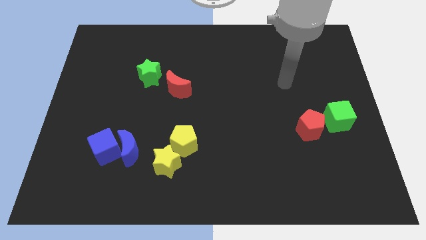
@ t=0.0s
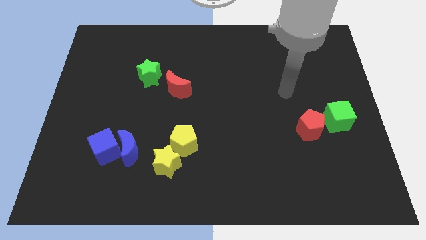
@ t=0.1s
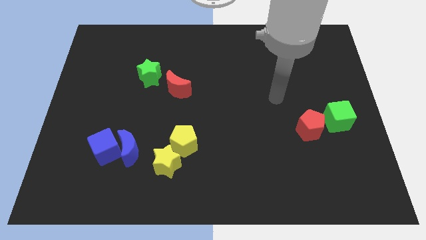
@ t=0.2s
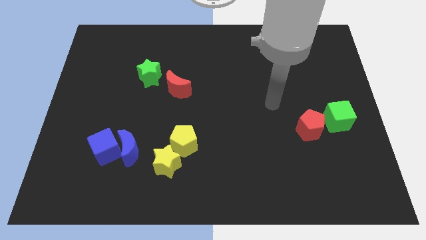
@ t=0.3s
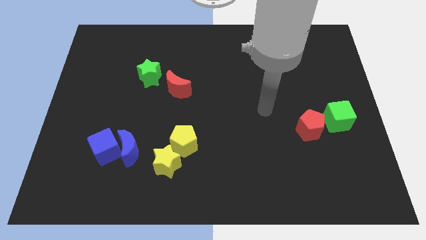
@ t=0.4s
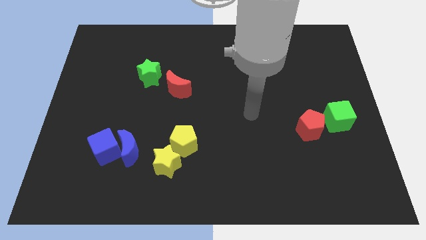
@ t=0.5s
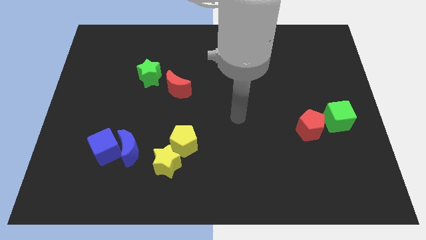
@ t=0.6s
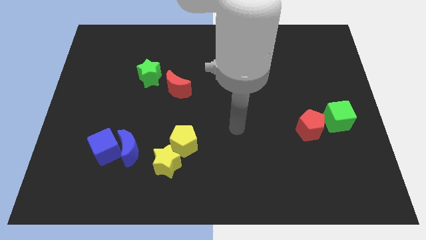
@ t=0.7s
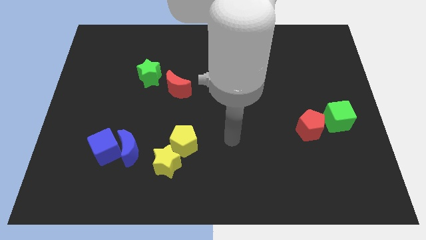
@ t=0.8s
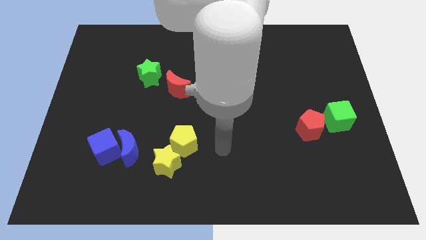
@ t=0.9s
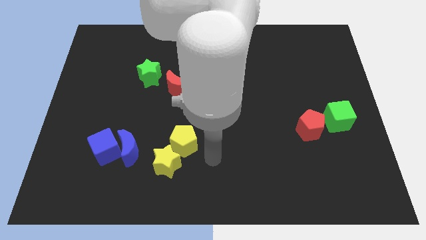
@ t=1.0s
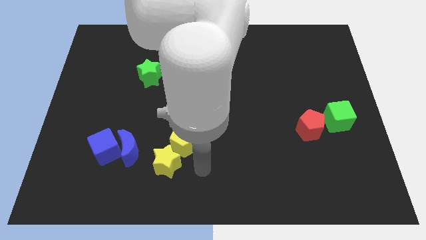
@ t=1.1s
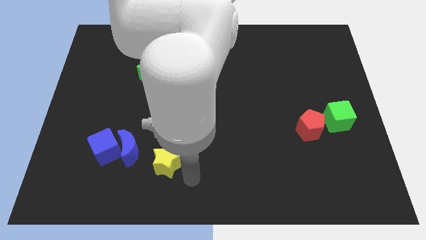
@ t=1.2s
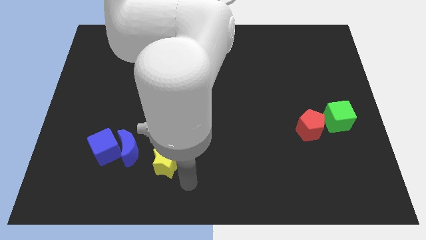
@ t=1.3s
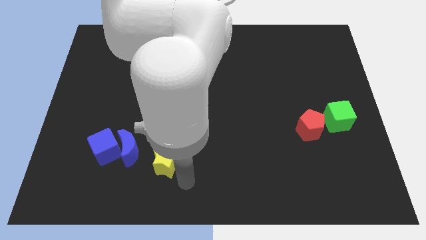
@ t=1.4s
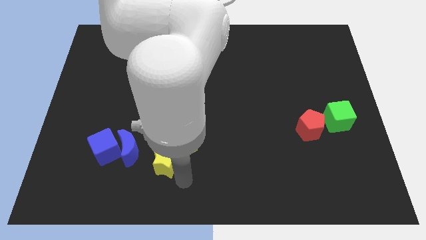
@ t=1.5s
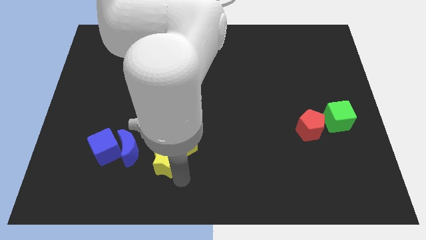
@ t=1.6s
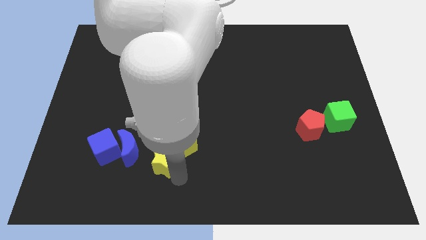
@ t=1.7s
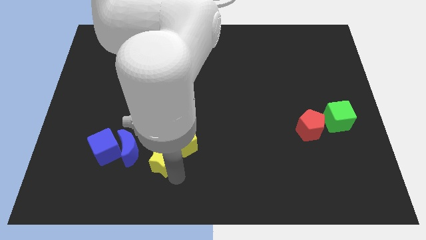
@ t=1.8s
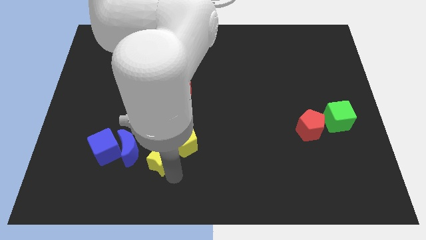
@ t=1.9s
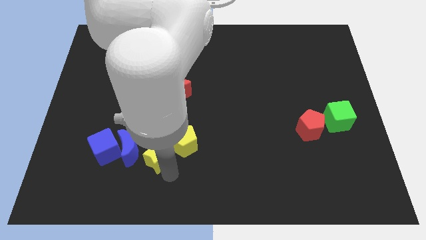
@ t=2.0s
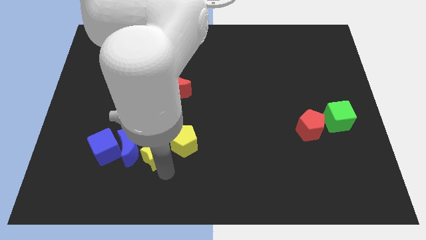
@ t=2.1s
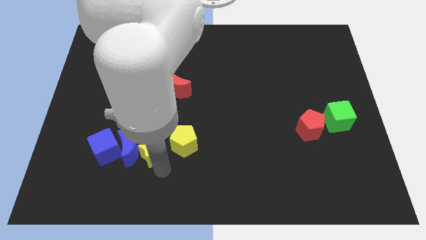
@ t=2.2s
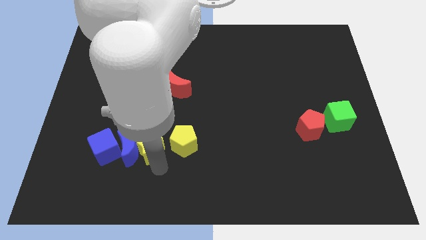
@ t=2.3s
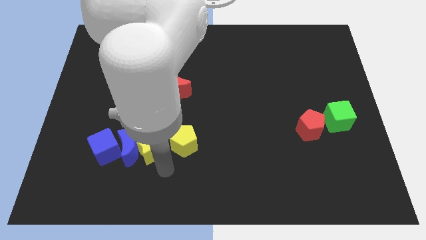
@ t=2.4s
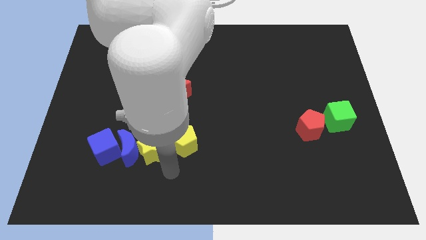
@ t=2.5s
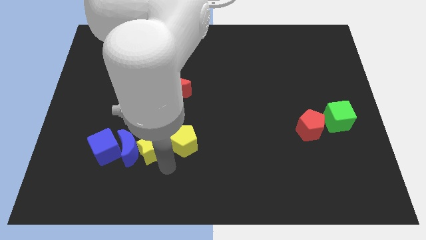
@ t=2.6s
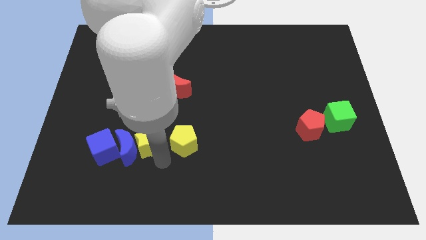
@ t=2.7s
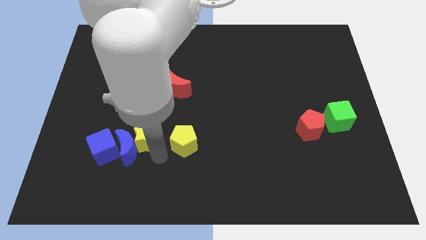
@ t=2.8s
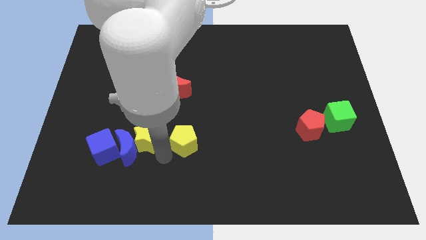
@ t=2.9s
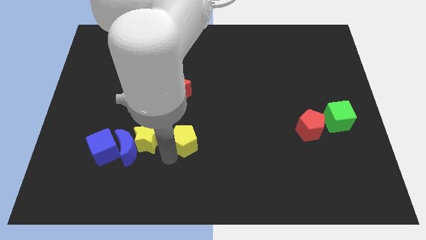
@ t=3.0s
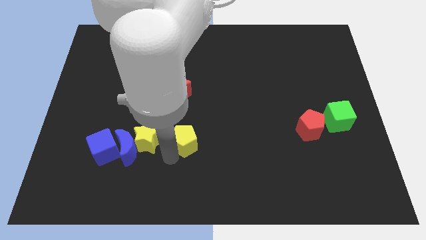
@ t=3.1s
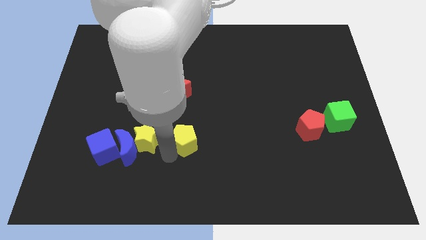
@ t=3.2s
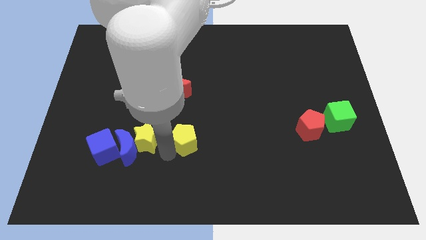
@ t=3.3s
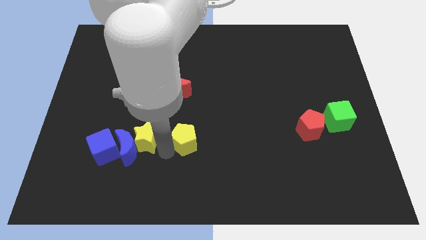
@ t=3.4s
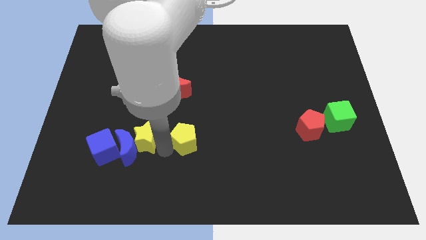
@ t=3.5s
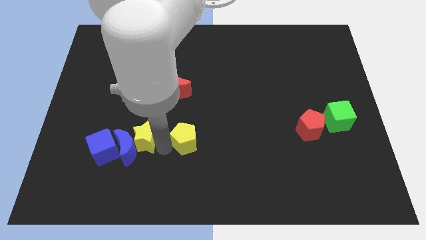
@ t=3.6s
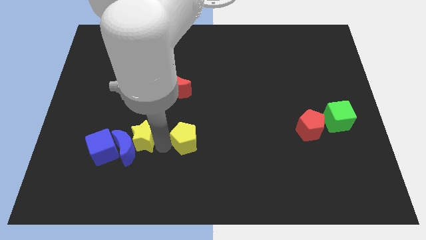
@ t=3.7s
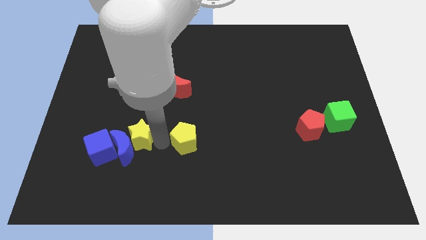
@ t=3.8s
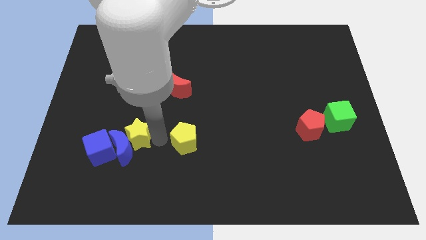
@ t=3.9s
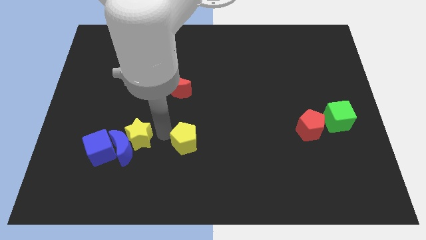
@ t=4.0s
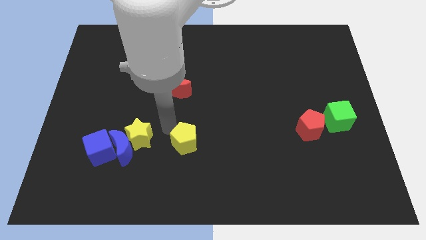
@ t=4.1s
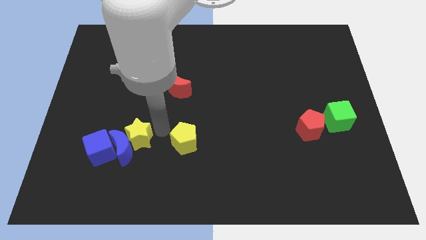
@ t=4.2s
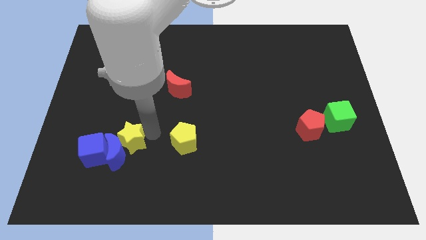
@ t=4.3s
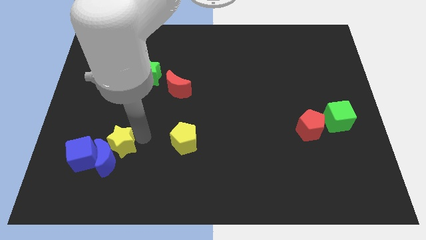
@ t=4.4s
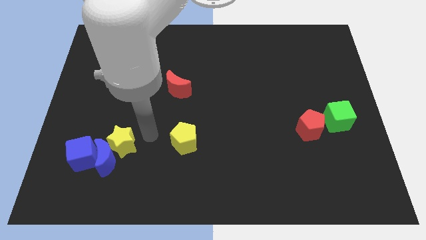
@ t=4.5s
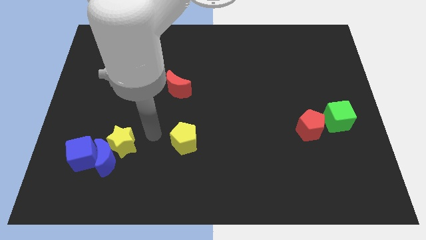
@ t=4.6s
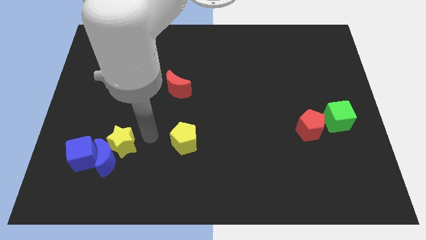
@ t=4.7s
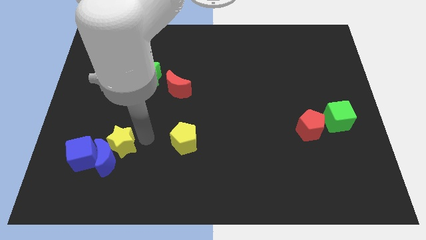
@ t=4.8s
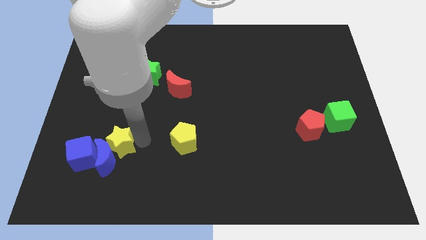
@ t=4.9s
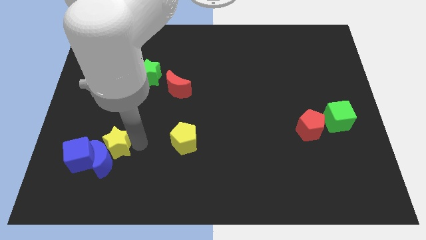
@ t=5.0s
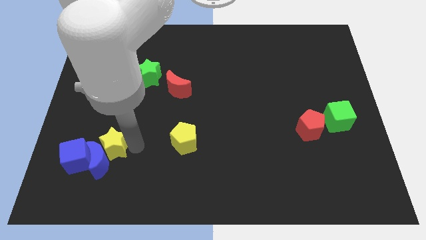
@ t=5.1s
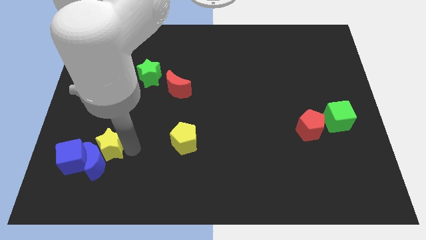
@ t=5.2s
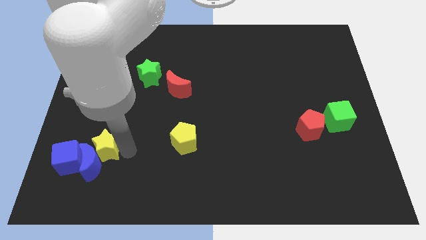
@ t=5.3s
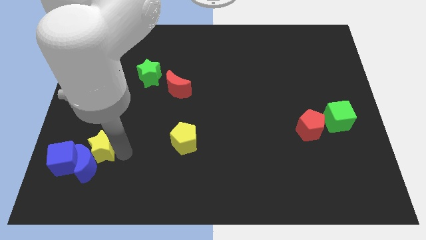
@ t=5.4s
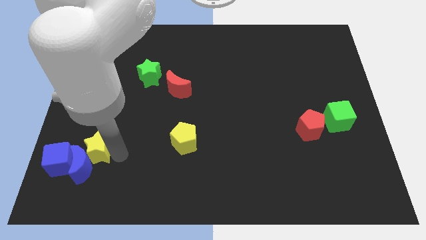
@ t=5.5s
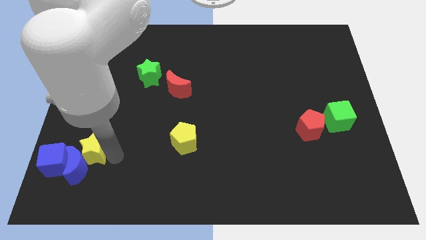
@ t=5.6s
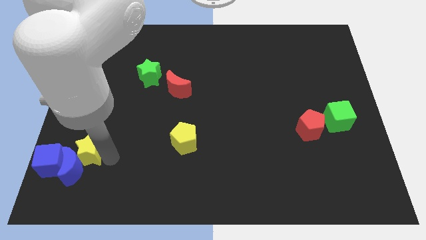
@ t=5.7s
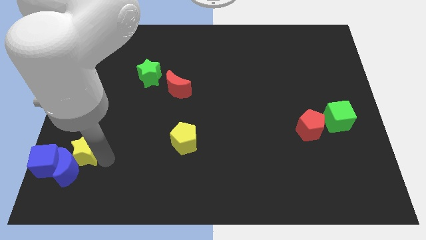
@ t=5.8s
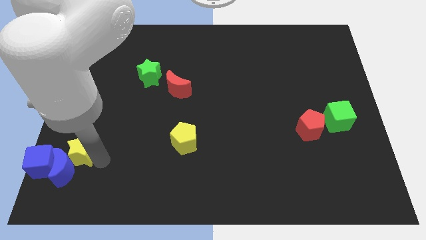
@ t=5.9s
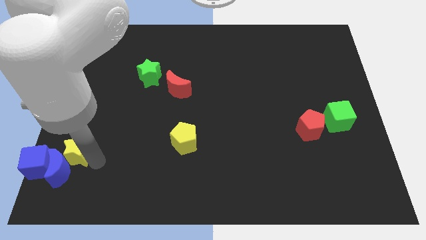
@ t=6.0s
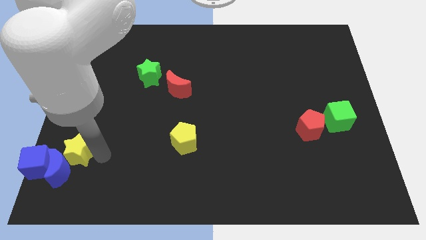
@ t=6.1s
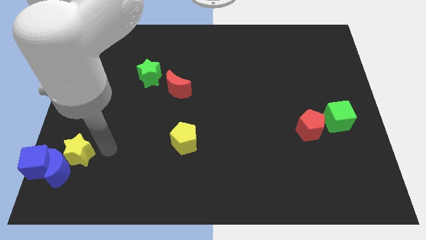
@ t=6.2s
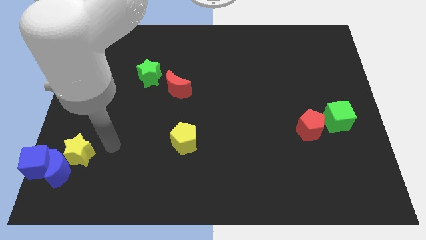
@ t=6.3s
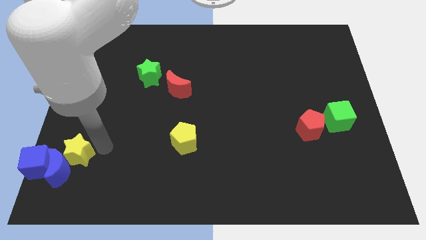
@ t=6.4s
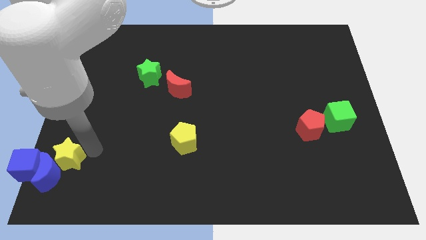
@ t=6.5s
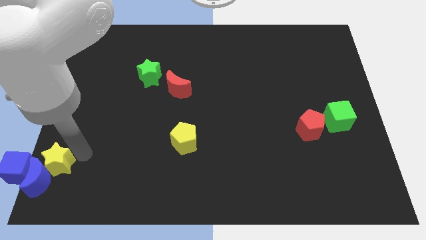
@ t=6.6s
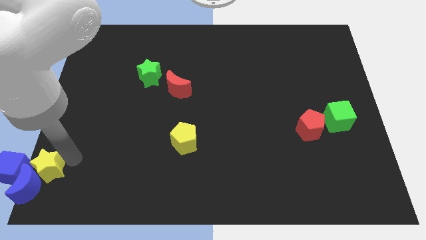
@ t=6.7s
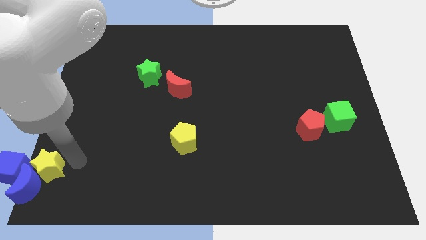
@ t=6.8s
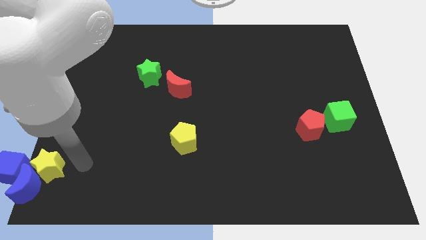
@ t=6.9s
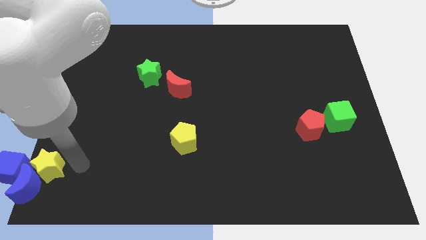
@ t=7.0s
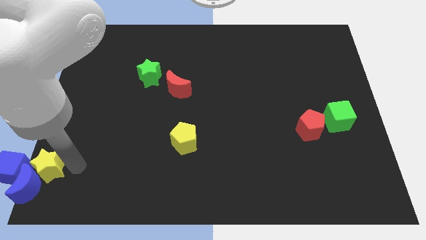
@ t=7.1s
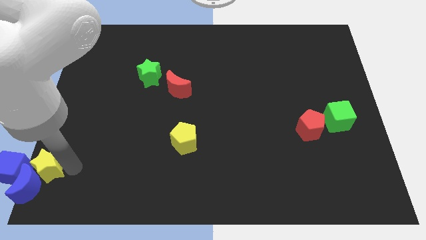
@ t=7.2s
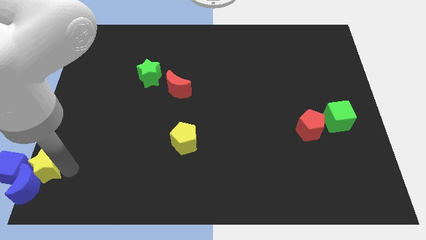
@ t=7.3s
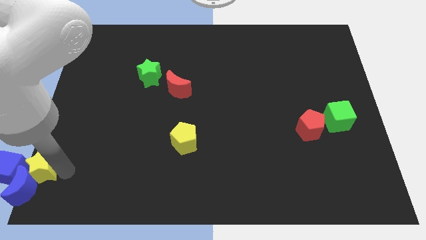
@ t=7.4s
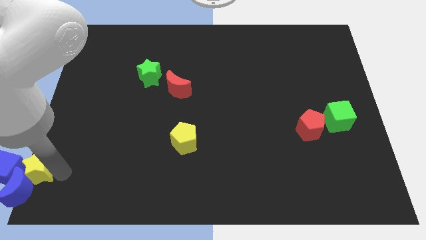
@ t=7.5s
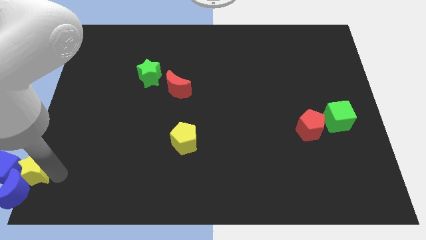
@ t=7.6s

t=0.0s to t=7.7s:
put the yellow star to the blue cube

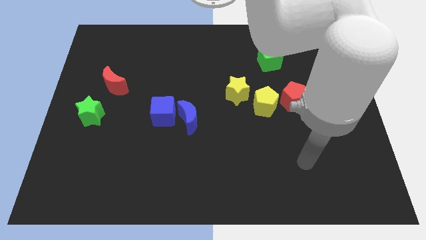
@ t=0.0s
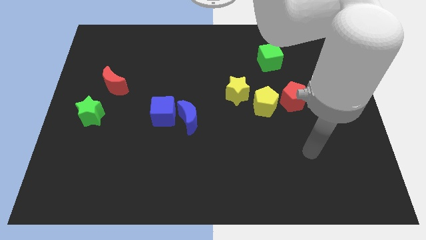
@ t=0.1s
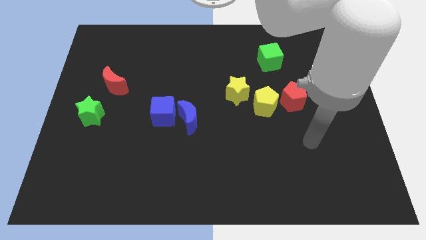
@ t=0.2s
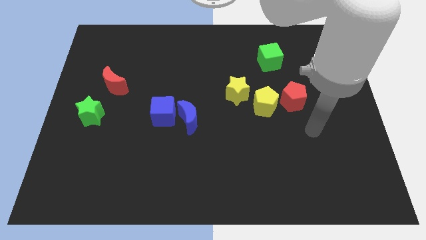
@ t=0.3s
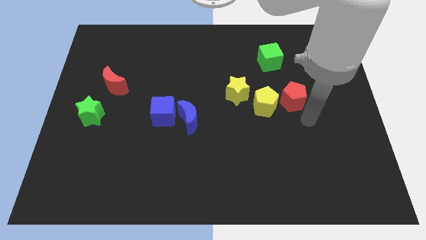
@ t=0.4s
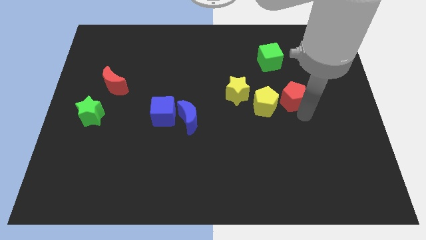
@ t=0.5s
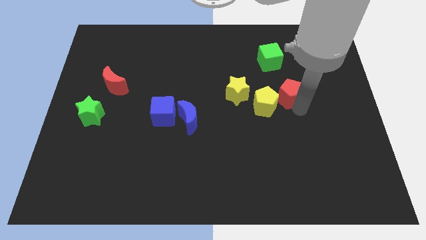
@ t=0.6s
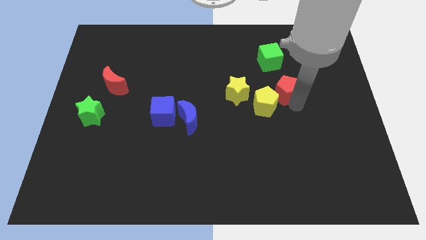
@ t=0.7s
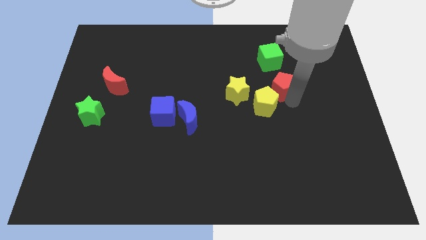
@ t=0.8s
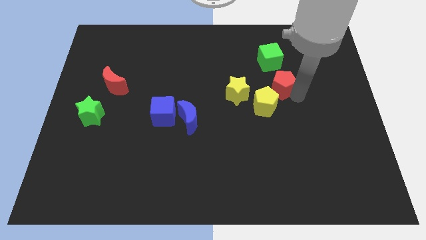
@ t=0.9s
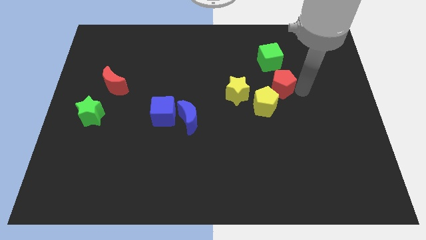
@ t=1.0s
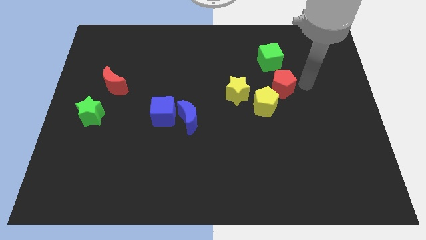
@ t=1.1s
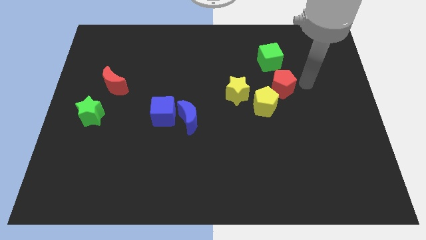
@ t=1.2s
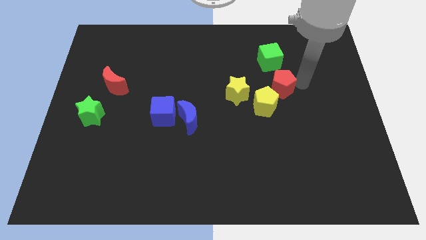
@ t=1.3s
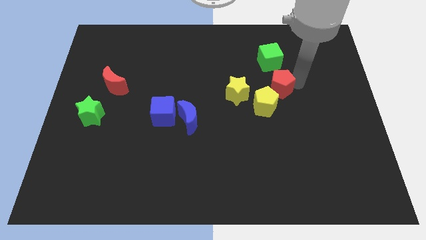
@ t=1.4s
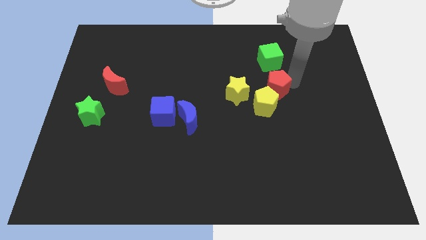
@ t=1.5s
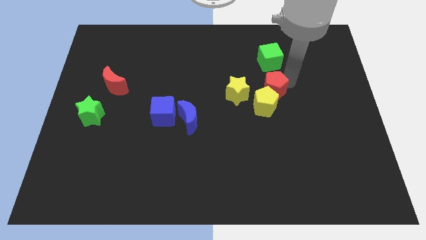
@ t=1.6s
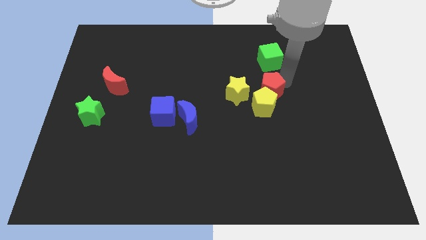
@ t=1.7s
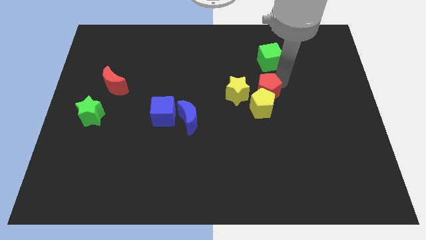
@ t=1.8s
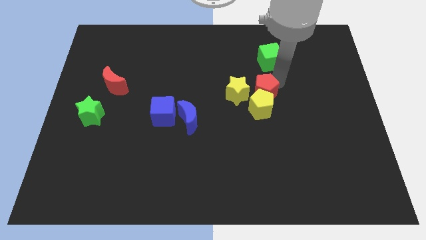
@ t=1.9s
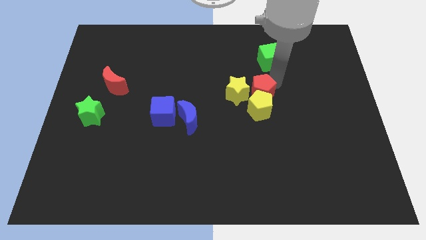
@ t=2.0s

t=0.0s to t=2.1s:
slide the red pentagon to the yellow star
